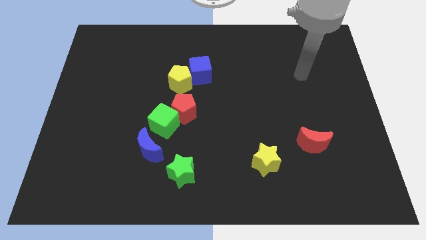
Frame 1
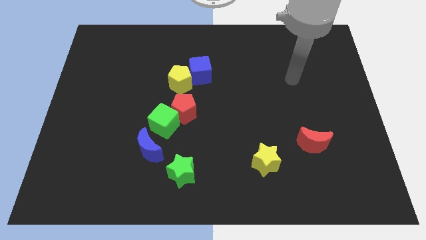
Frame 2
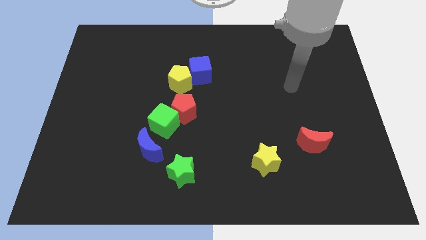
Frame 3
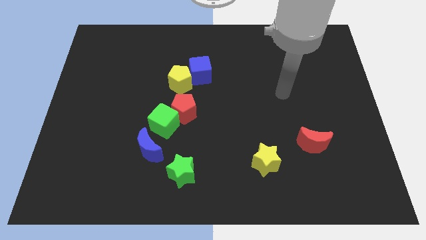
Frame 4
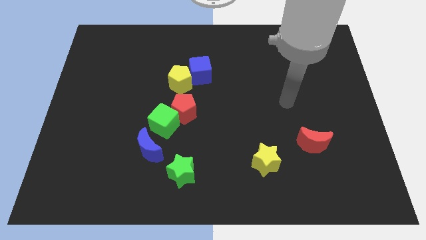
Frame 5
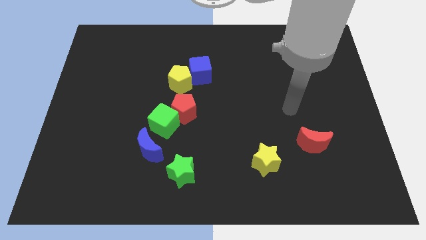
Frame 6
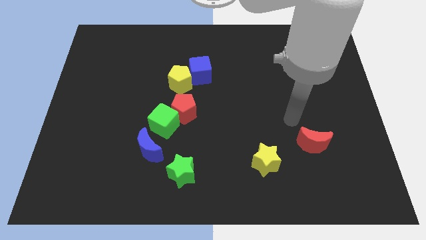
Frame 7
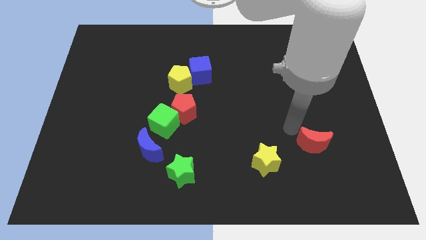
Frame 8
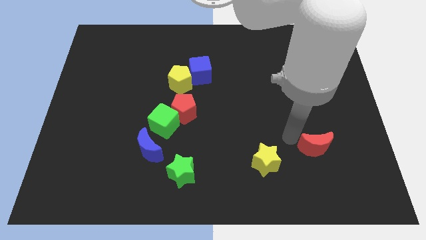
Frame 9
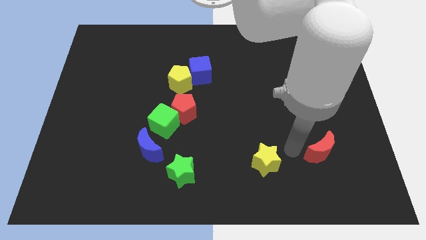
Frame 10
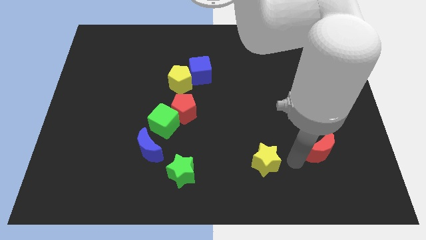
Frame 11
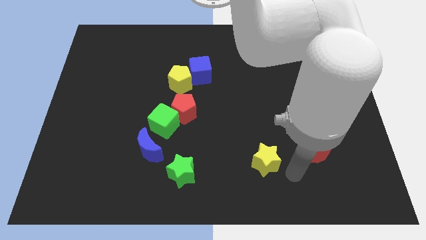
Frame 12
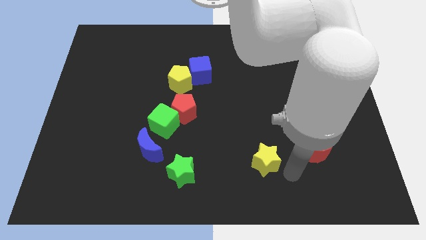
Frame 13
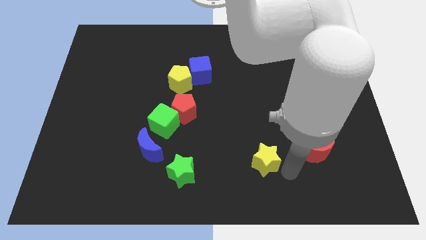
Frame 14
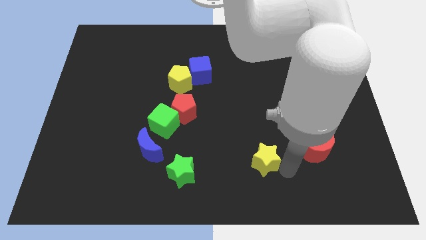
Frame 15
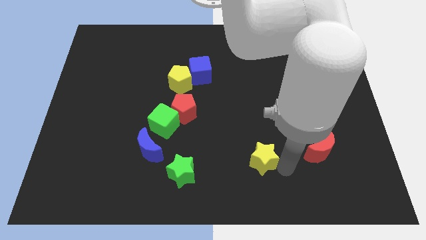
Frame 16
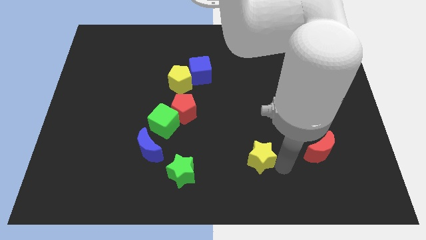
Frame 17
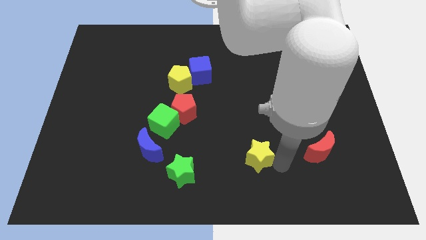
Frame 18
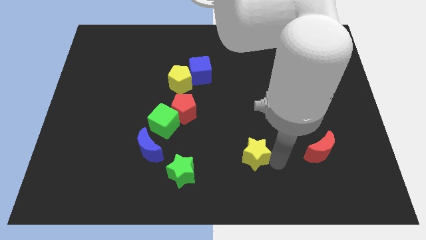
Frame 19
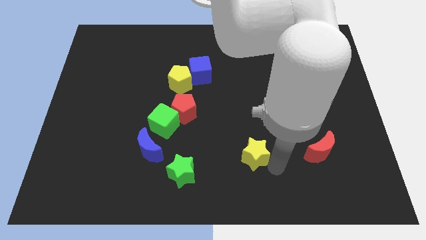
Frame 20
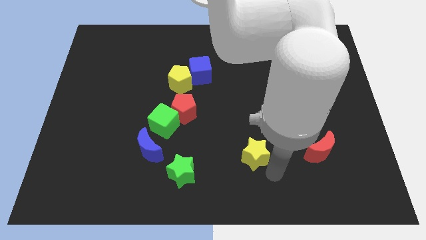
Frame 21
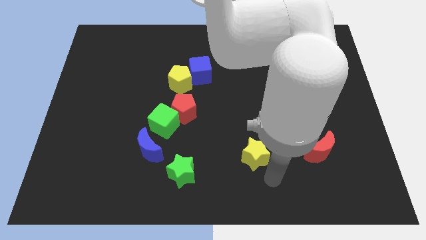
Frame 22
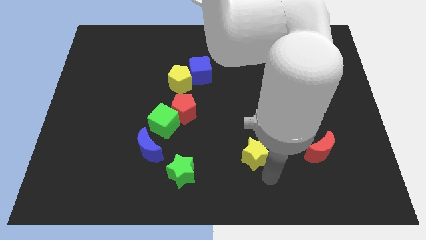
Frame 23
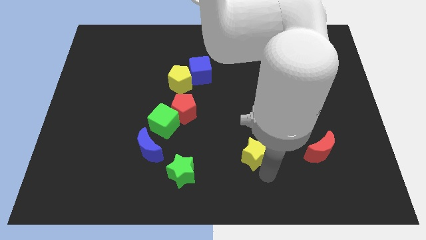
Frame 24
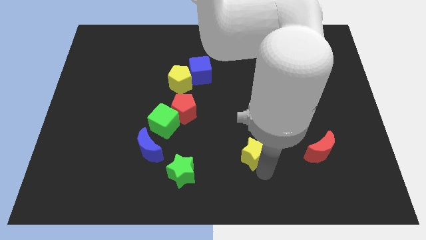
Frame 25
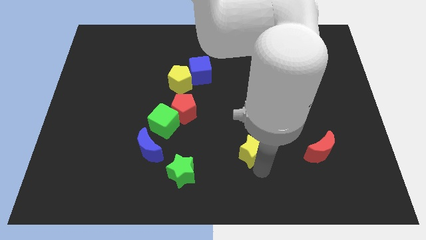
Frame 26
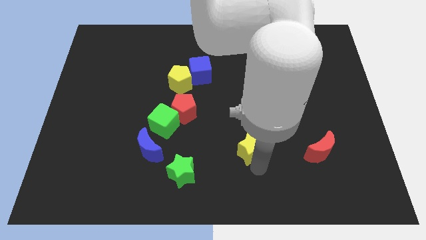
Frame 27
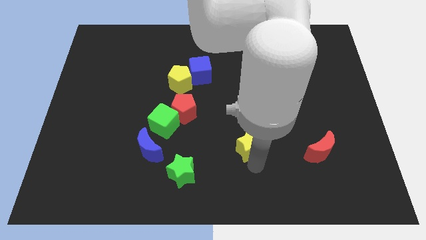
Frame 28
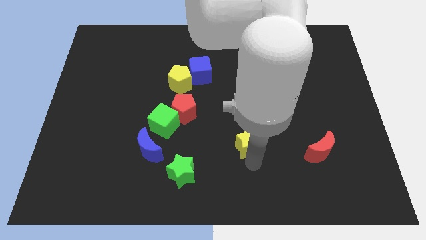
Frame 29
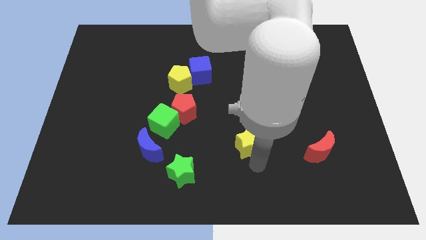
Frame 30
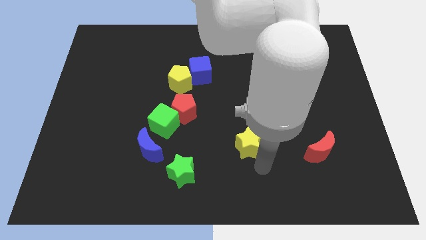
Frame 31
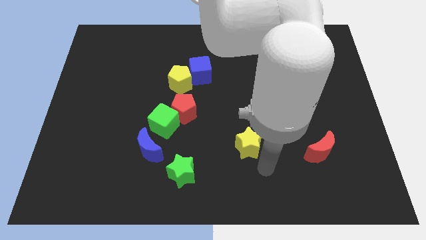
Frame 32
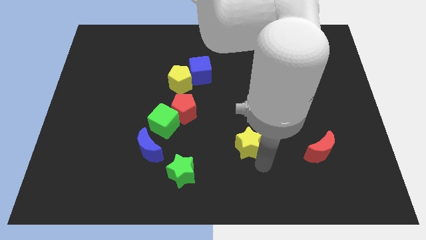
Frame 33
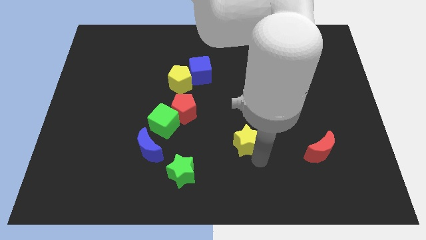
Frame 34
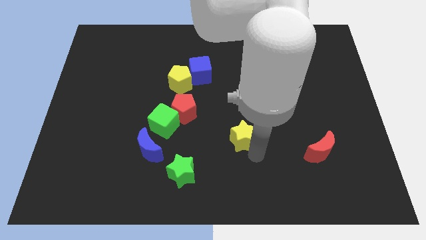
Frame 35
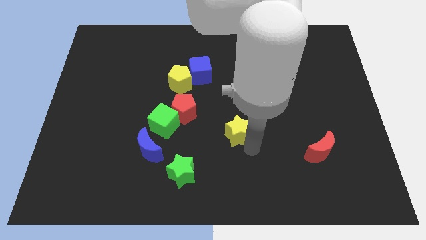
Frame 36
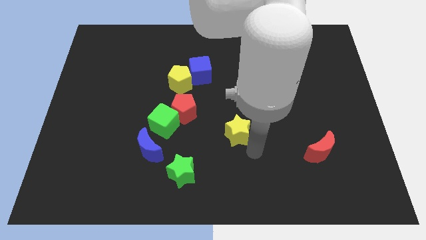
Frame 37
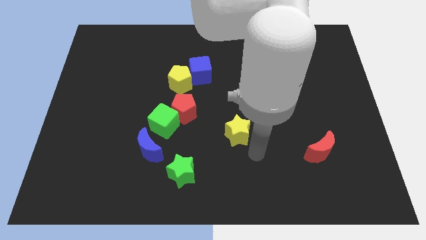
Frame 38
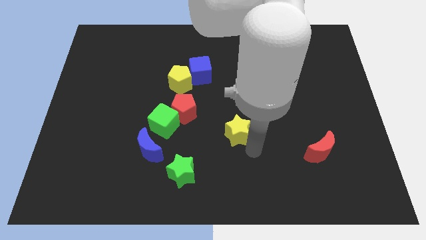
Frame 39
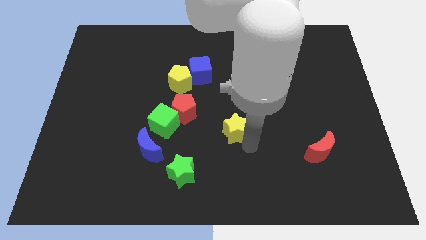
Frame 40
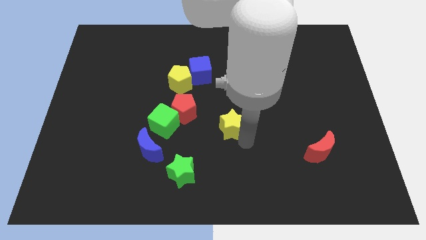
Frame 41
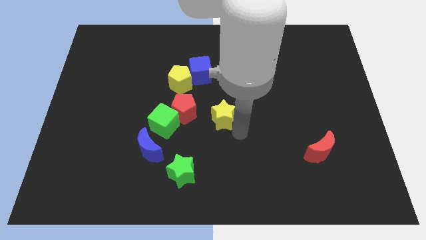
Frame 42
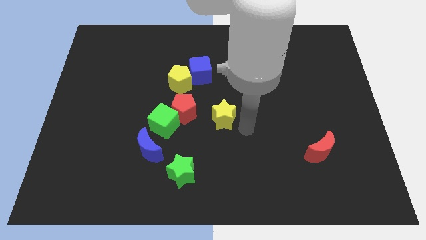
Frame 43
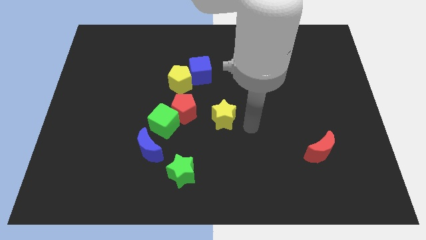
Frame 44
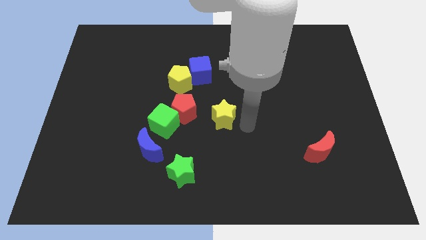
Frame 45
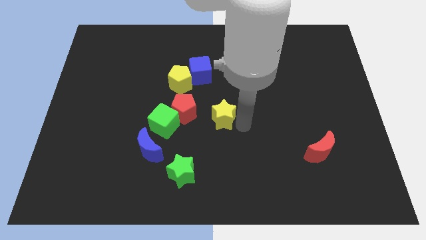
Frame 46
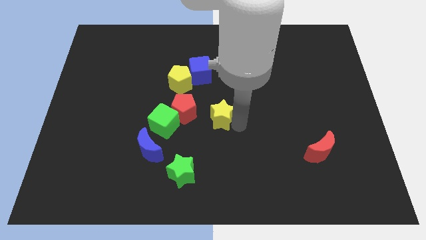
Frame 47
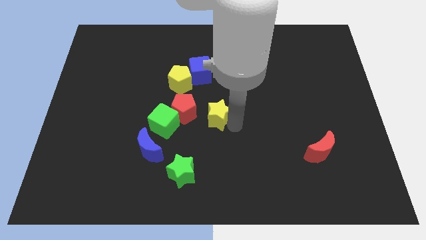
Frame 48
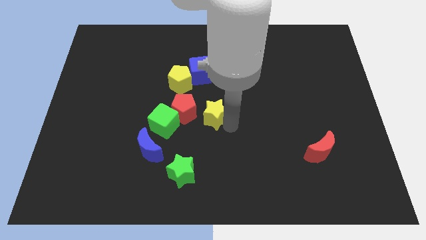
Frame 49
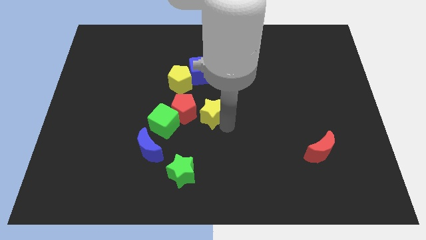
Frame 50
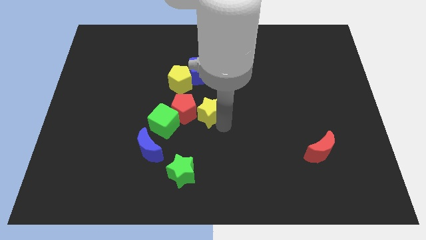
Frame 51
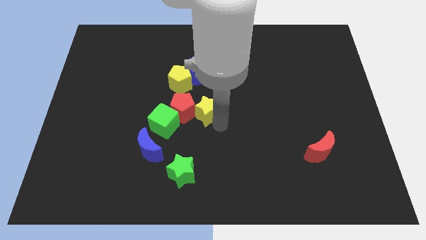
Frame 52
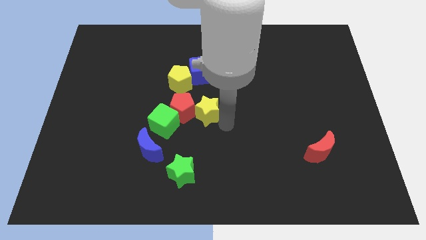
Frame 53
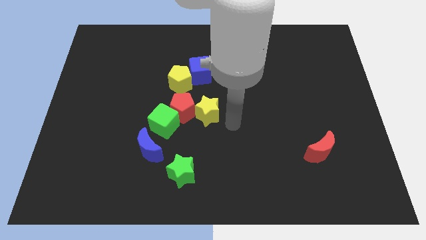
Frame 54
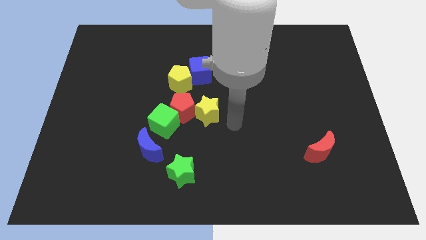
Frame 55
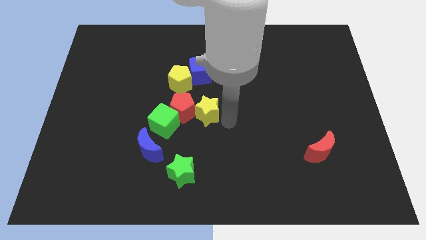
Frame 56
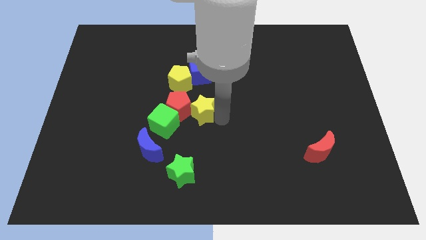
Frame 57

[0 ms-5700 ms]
move the yellow star diagonally up and to the right of the green cube

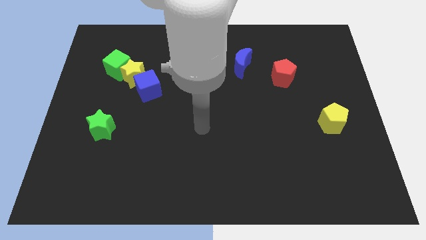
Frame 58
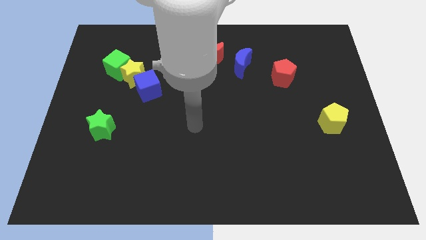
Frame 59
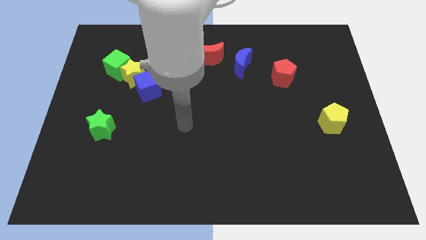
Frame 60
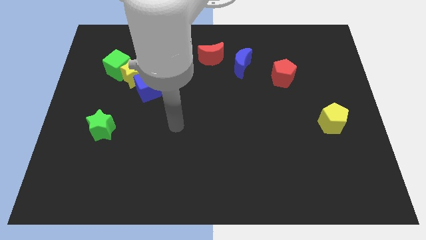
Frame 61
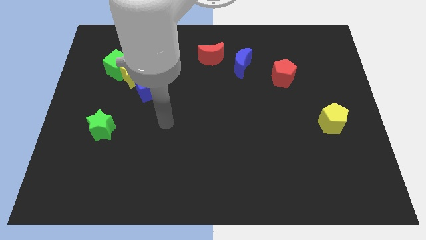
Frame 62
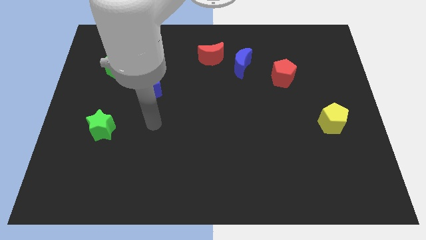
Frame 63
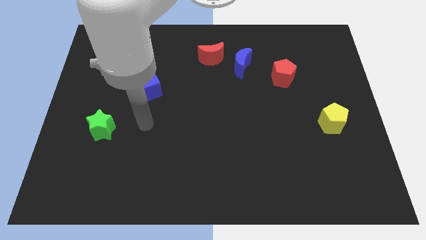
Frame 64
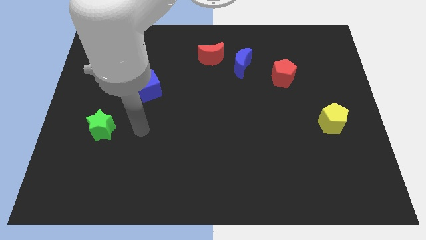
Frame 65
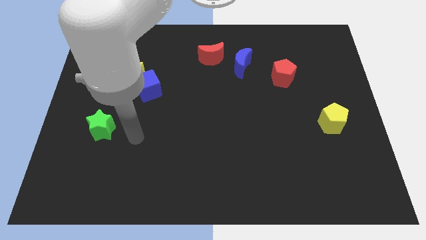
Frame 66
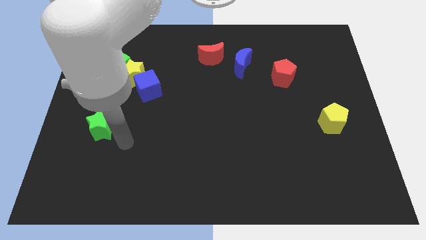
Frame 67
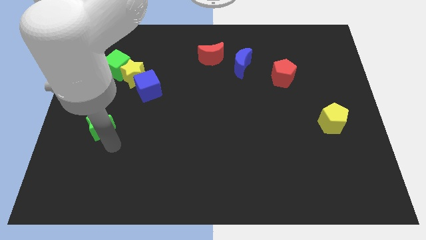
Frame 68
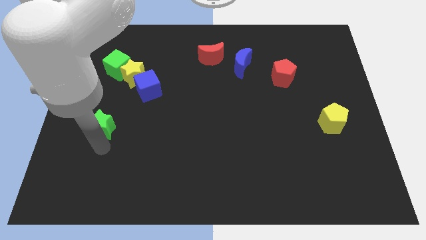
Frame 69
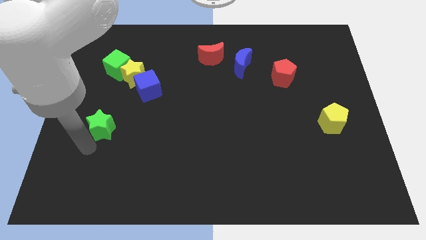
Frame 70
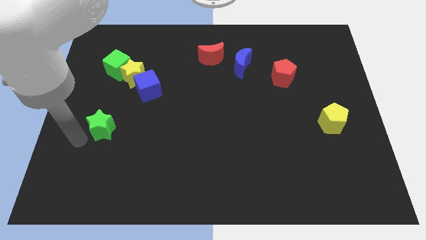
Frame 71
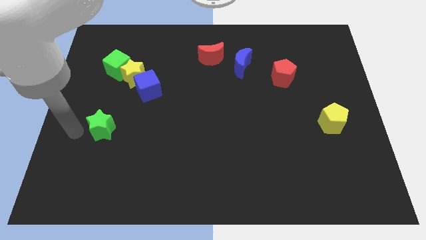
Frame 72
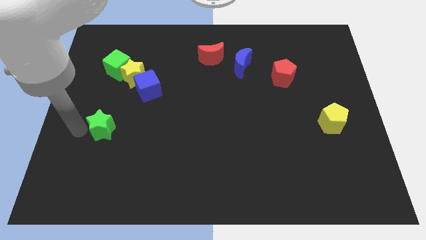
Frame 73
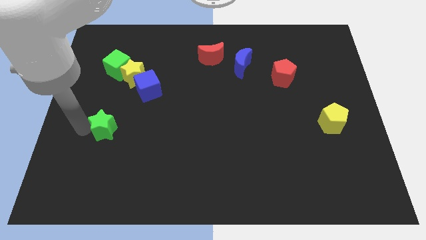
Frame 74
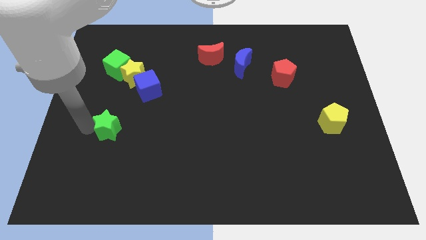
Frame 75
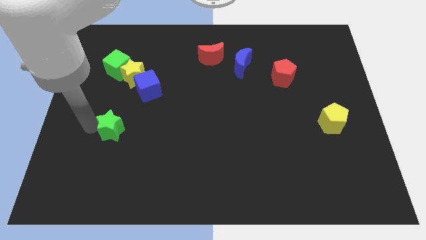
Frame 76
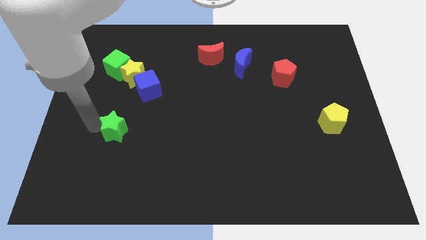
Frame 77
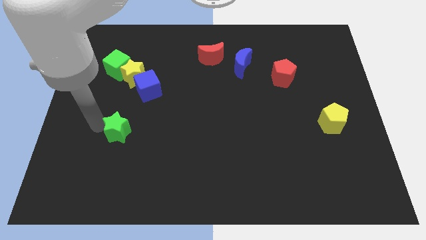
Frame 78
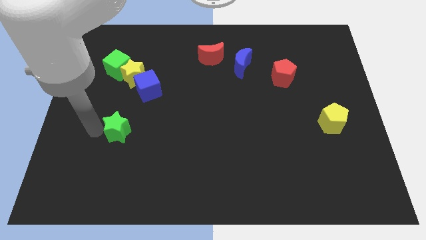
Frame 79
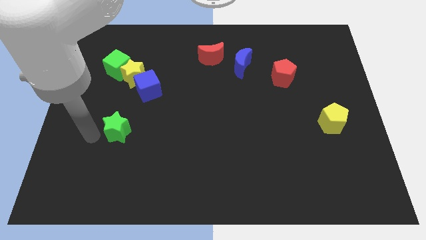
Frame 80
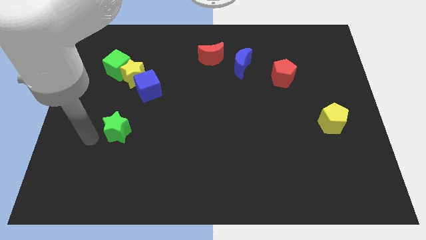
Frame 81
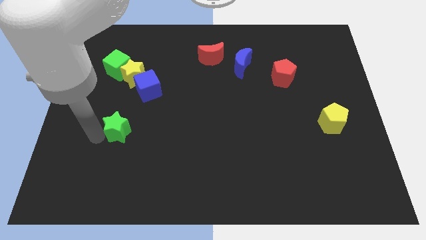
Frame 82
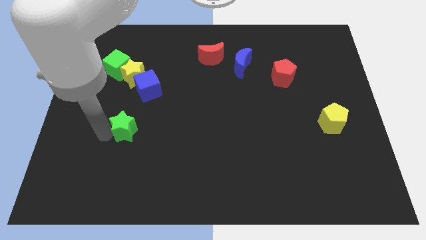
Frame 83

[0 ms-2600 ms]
put the green star to the bottom side of the blue cube
